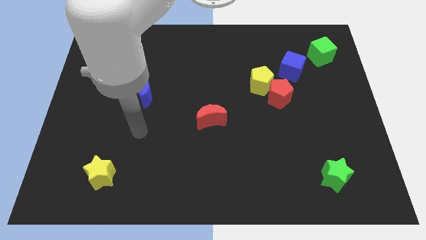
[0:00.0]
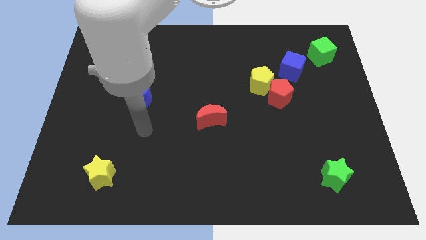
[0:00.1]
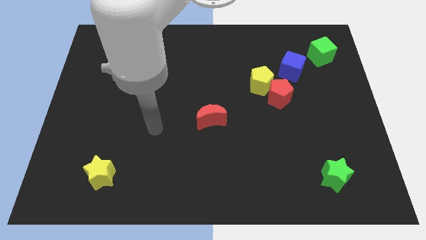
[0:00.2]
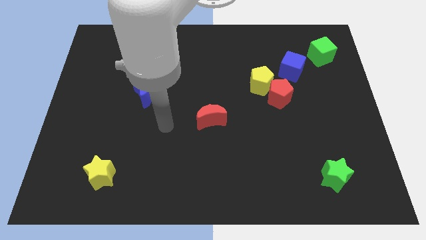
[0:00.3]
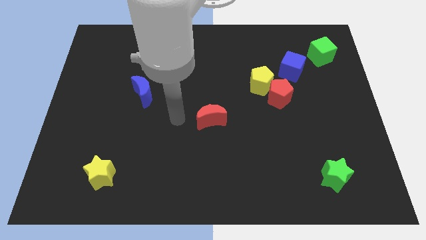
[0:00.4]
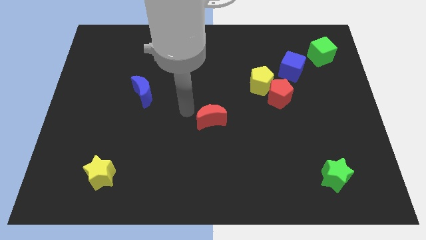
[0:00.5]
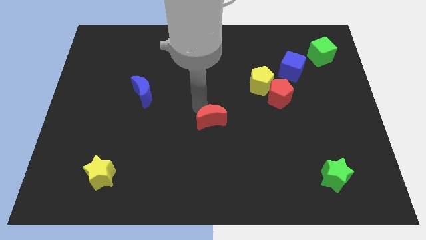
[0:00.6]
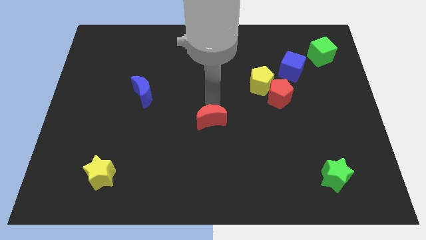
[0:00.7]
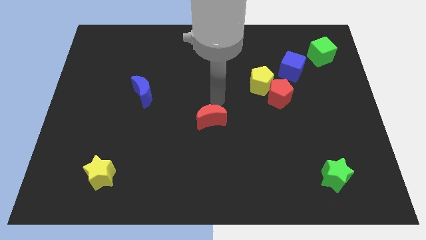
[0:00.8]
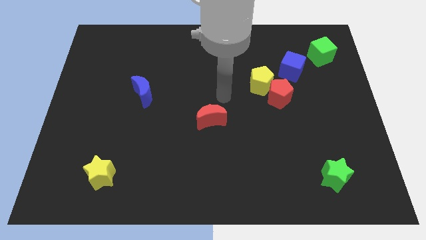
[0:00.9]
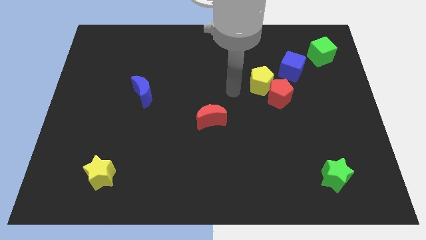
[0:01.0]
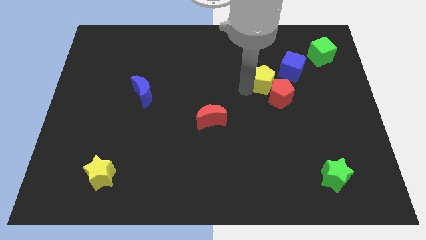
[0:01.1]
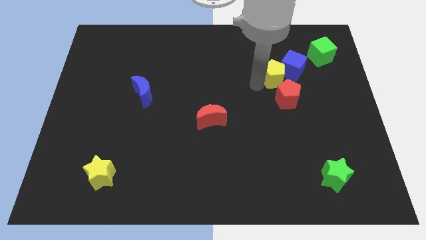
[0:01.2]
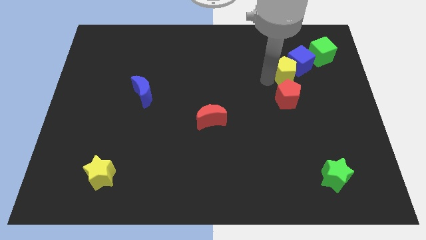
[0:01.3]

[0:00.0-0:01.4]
separate the red pentagon from the yellow pentagon and blue cube

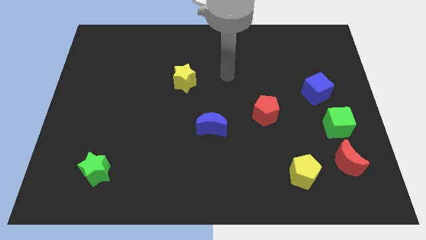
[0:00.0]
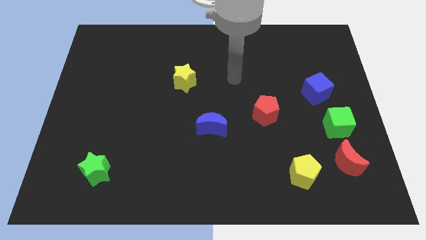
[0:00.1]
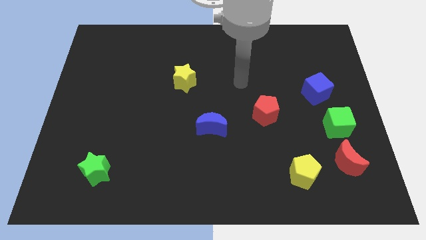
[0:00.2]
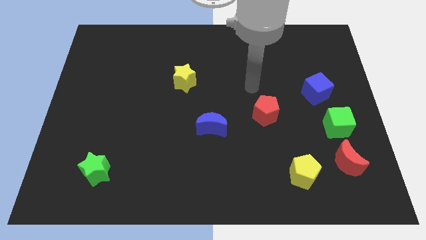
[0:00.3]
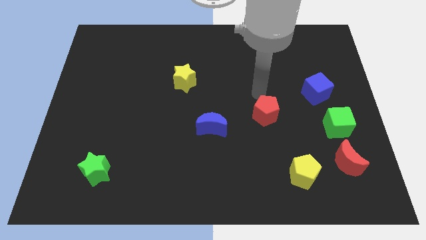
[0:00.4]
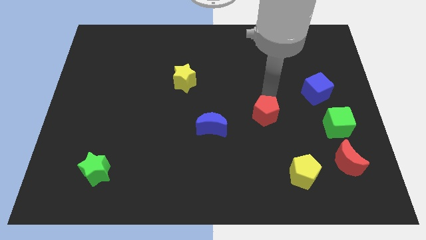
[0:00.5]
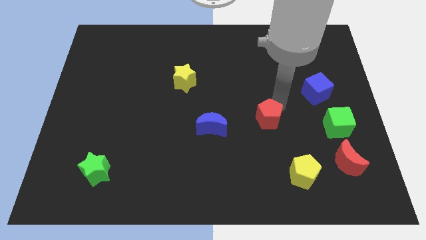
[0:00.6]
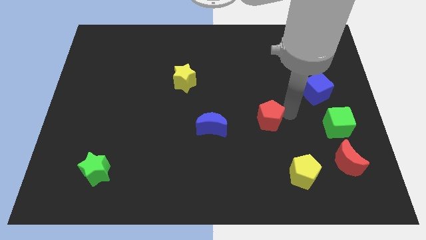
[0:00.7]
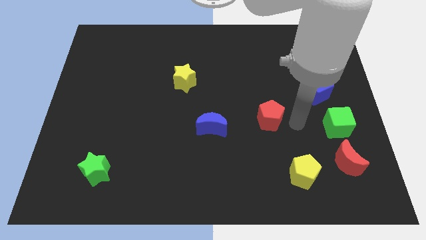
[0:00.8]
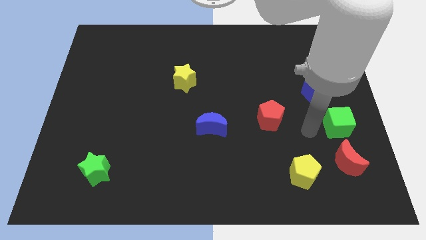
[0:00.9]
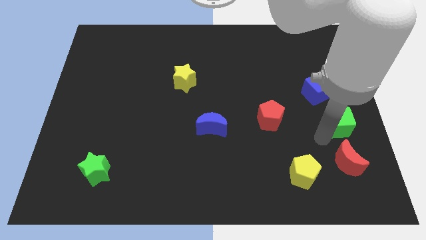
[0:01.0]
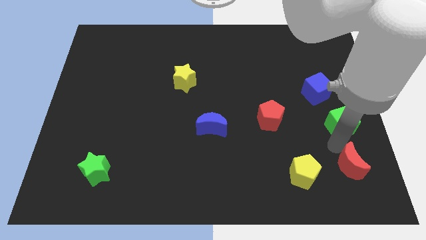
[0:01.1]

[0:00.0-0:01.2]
separate the green cube from the red moon

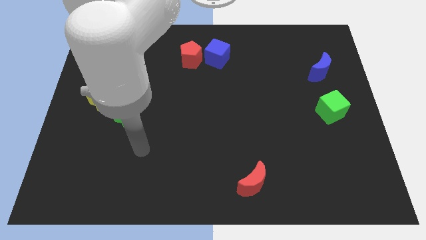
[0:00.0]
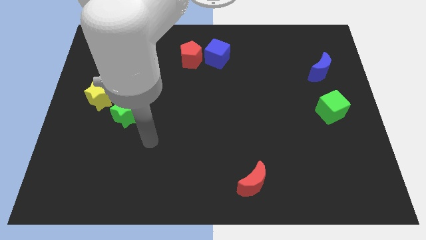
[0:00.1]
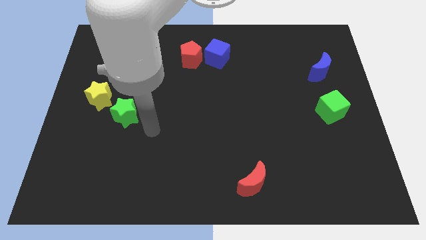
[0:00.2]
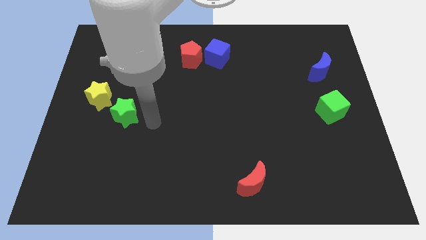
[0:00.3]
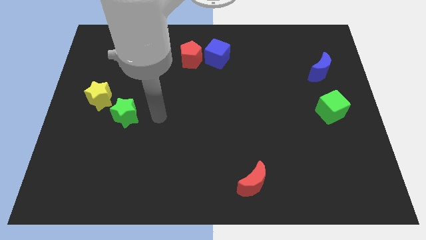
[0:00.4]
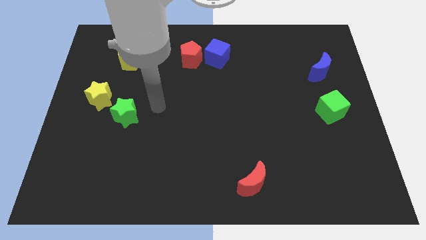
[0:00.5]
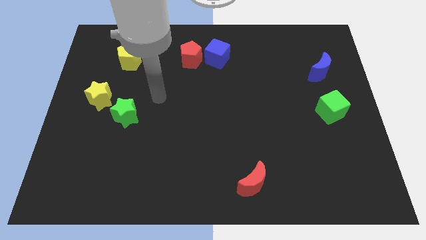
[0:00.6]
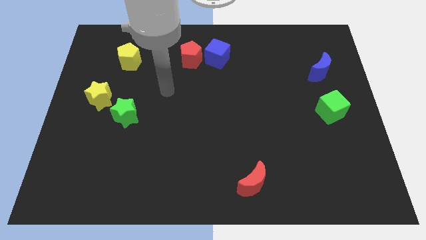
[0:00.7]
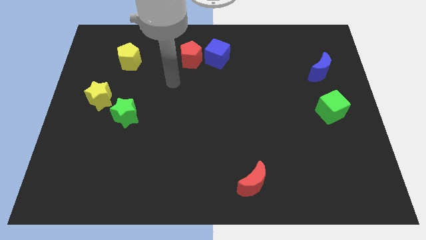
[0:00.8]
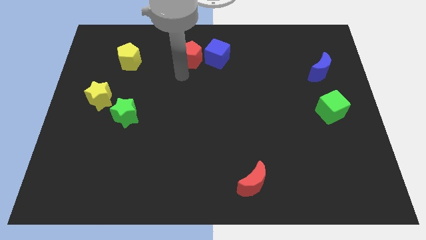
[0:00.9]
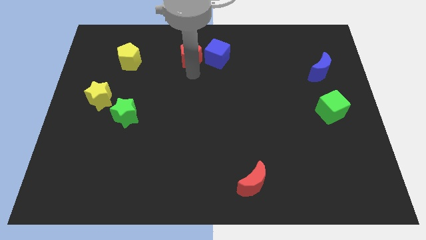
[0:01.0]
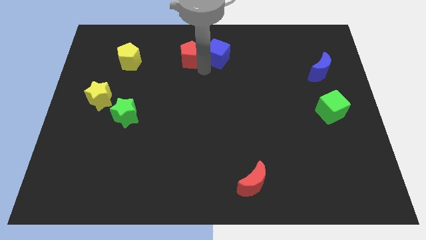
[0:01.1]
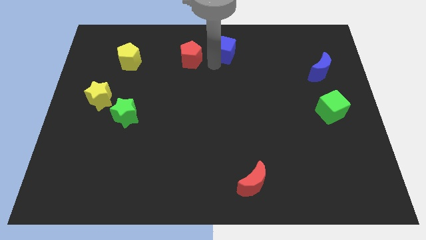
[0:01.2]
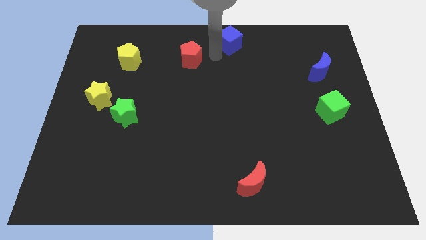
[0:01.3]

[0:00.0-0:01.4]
move the red pentagon away from the blue cube

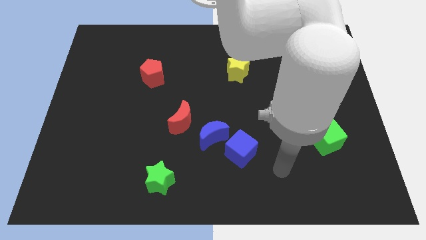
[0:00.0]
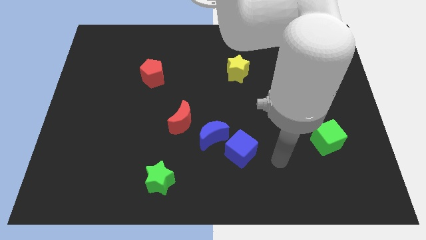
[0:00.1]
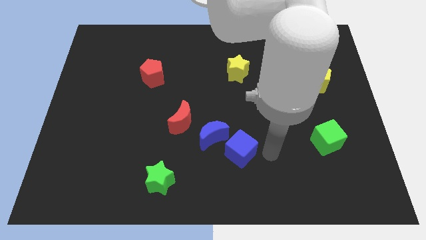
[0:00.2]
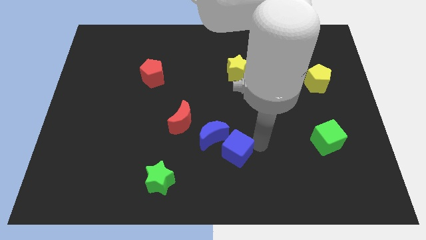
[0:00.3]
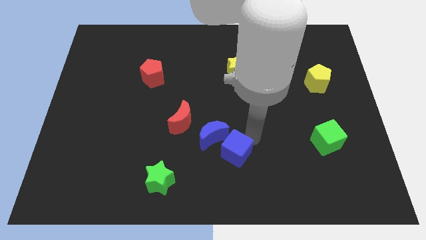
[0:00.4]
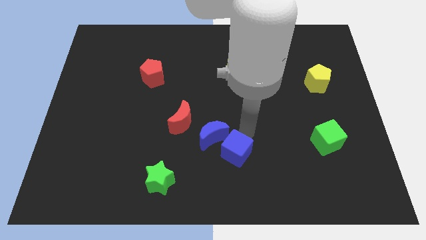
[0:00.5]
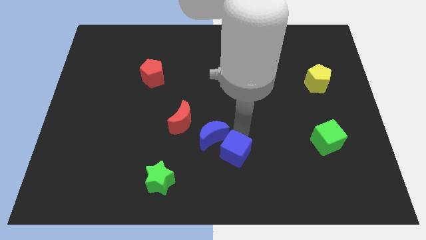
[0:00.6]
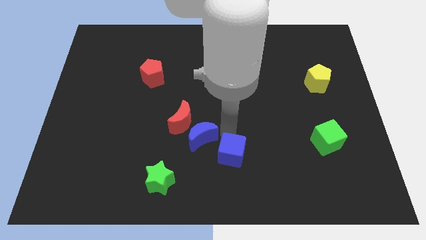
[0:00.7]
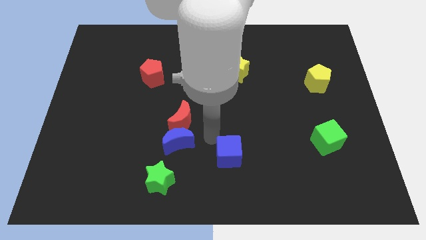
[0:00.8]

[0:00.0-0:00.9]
move the blue cube away from the blue moon

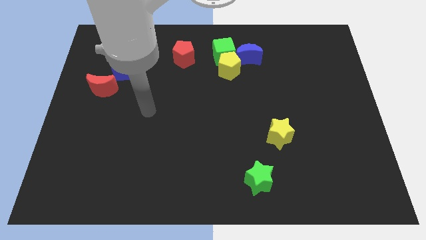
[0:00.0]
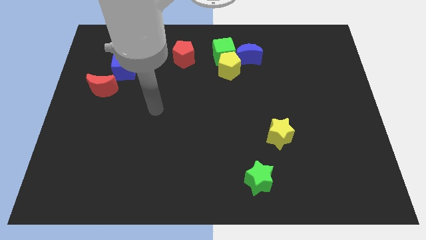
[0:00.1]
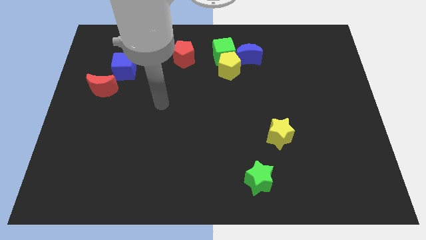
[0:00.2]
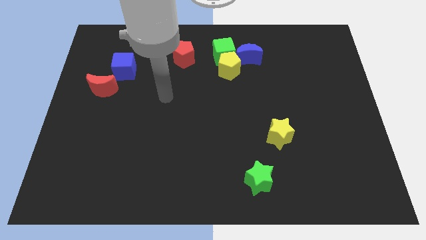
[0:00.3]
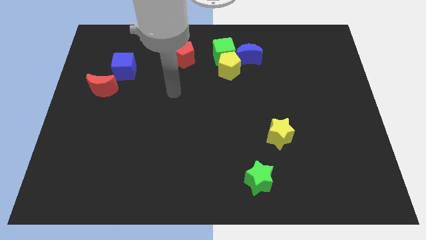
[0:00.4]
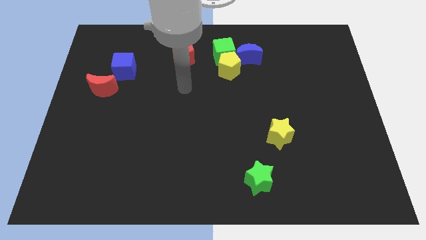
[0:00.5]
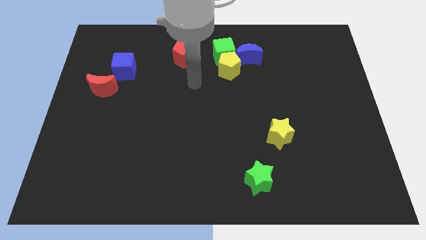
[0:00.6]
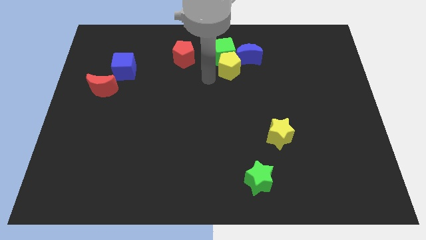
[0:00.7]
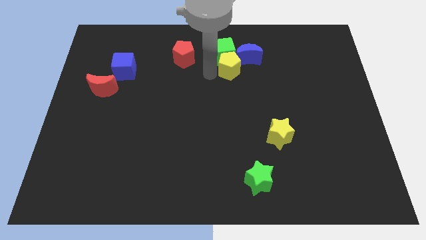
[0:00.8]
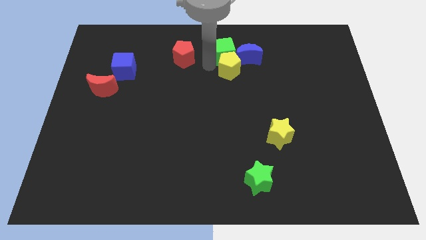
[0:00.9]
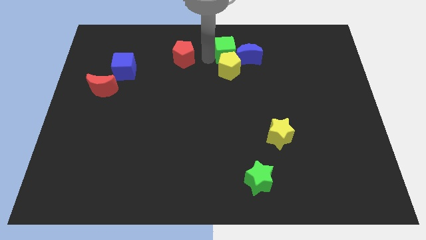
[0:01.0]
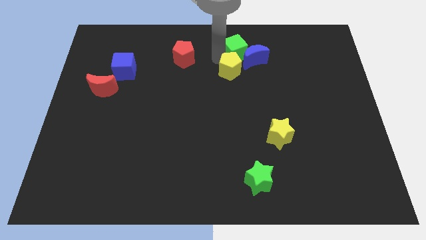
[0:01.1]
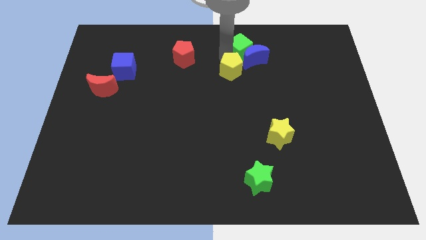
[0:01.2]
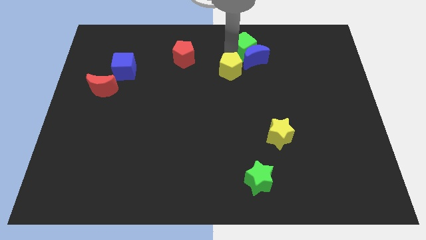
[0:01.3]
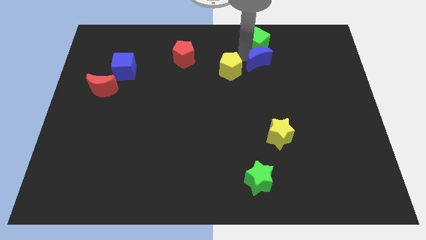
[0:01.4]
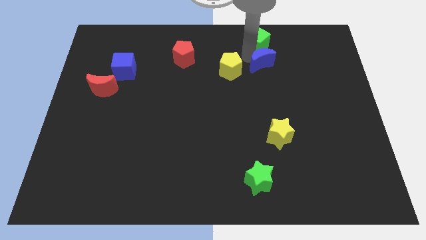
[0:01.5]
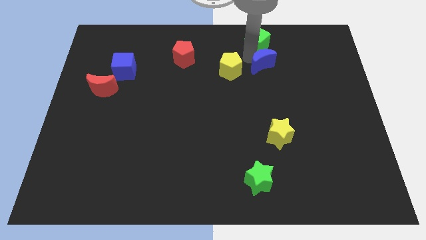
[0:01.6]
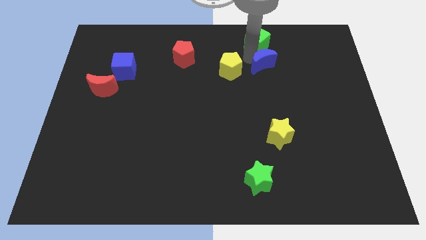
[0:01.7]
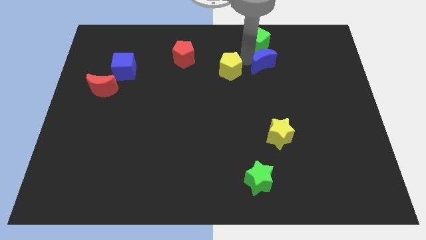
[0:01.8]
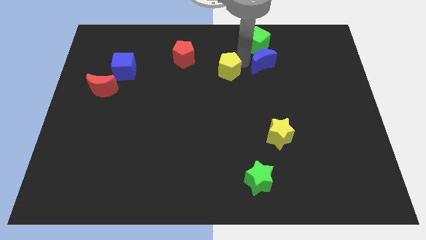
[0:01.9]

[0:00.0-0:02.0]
move the yellow pentagon away from the green cube and blue moon

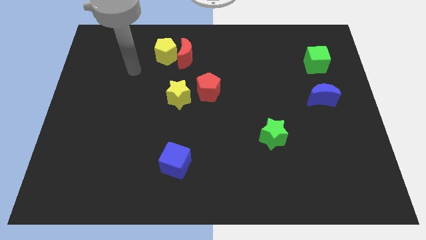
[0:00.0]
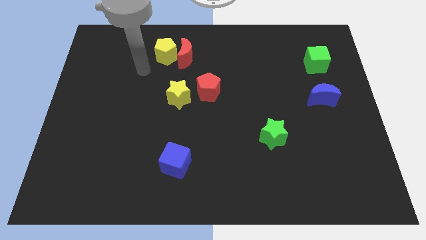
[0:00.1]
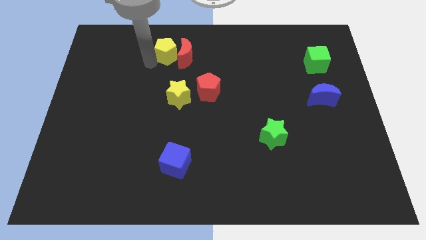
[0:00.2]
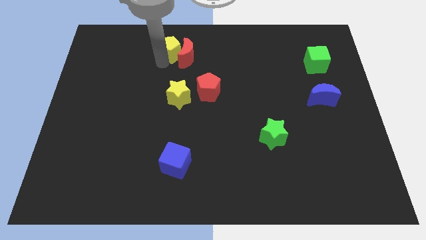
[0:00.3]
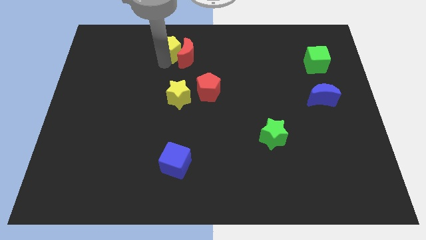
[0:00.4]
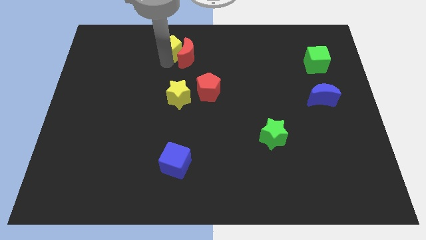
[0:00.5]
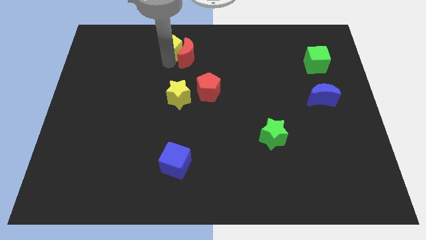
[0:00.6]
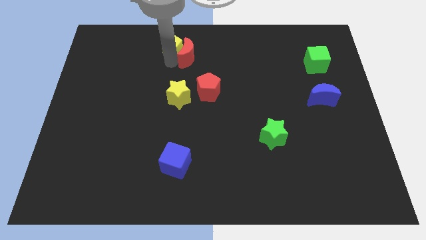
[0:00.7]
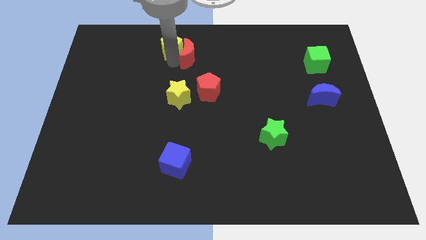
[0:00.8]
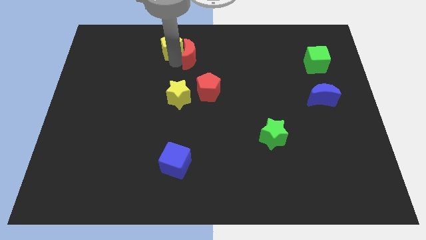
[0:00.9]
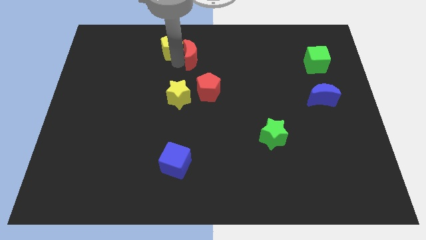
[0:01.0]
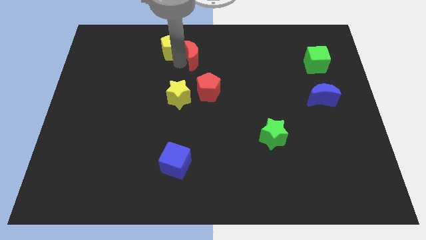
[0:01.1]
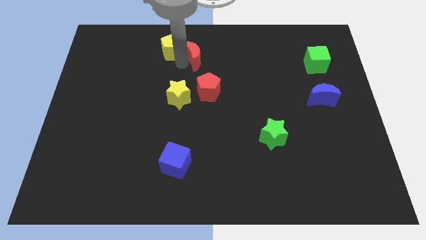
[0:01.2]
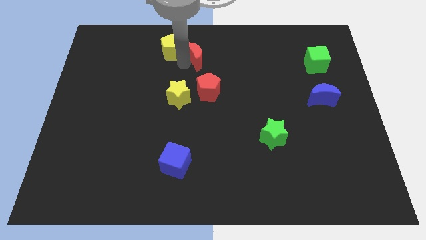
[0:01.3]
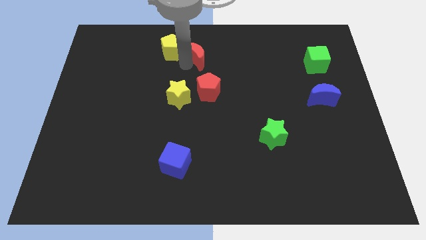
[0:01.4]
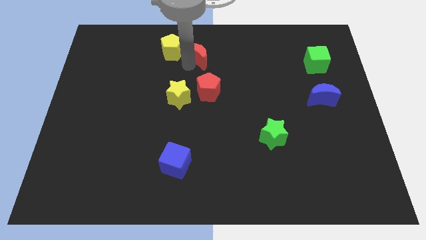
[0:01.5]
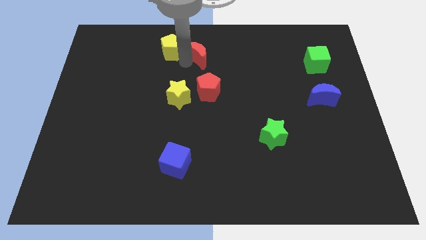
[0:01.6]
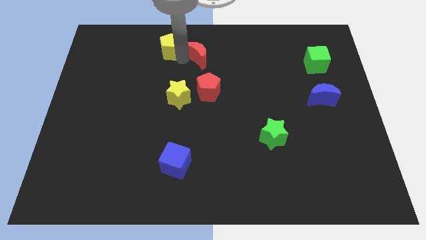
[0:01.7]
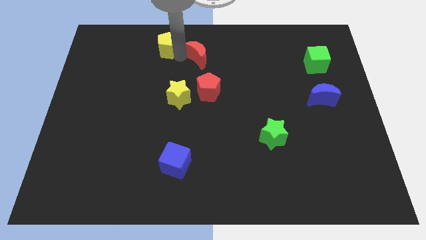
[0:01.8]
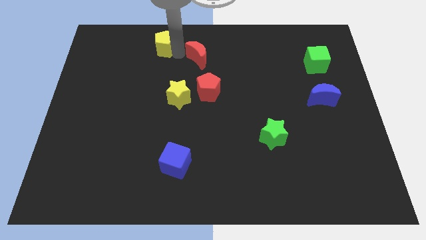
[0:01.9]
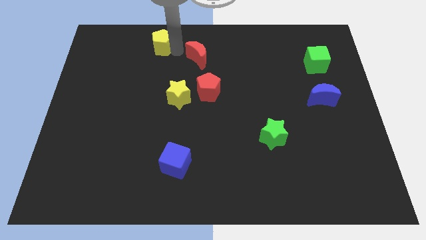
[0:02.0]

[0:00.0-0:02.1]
pull the red moon apart from the yellow pentagon

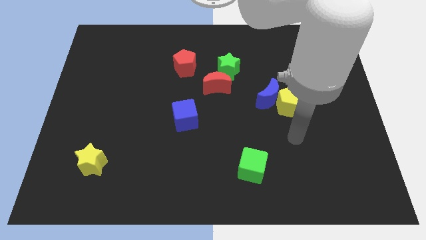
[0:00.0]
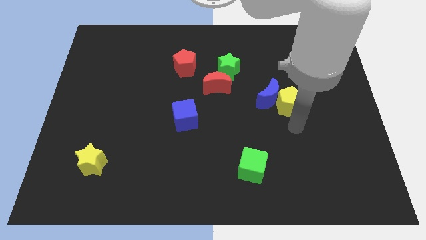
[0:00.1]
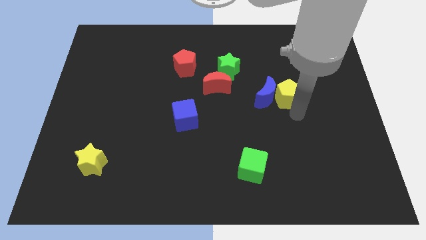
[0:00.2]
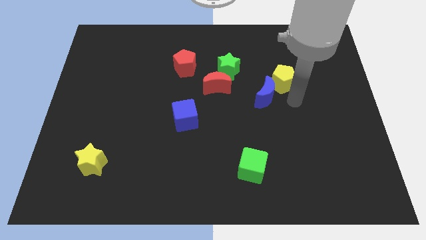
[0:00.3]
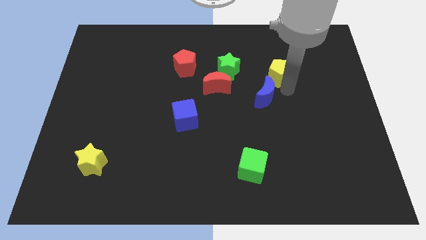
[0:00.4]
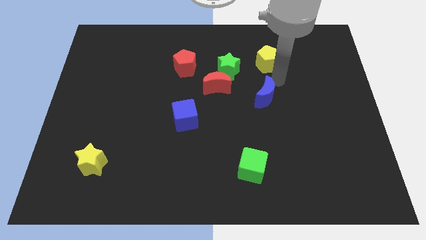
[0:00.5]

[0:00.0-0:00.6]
separate the blue moon from the yellow pentagon
